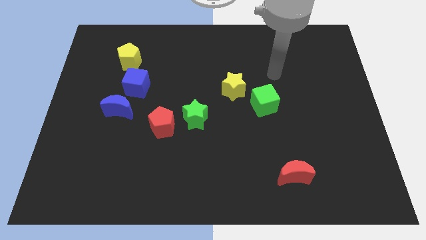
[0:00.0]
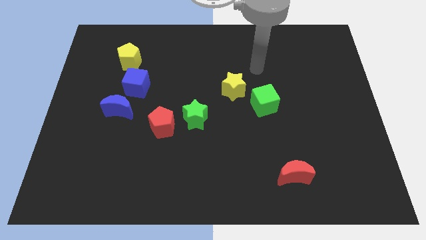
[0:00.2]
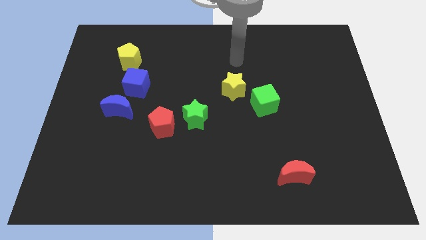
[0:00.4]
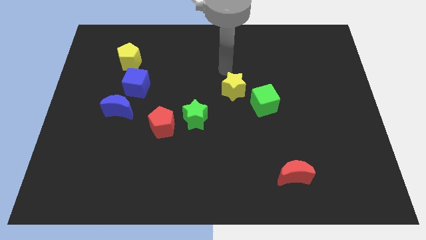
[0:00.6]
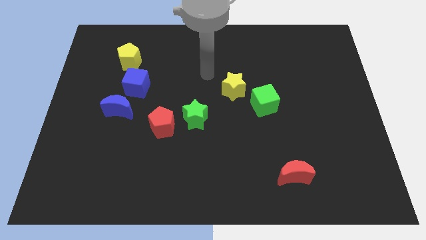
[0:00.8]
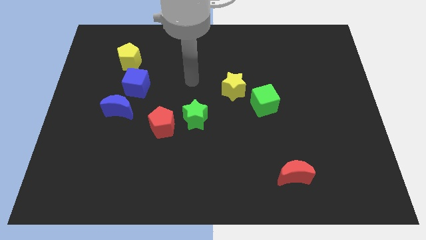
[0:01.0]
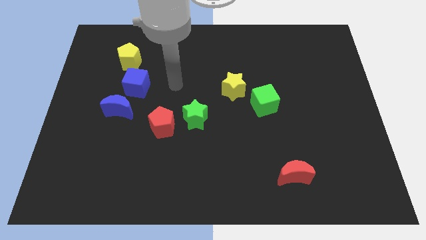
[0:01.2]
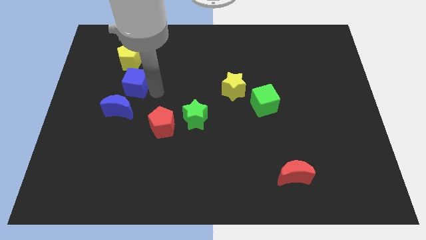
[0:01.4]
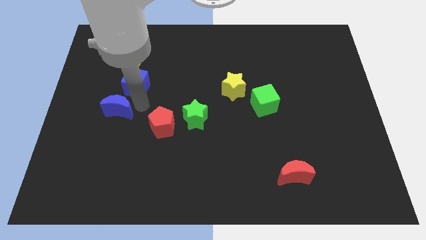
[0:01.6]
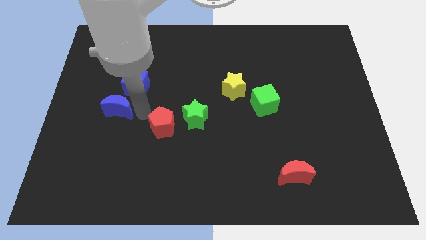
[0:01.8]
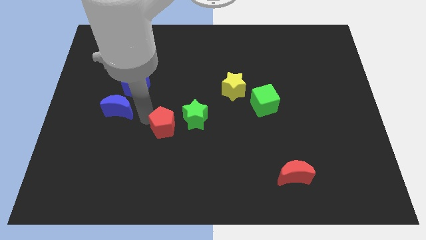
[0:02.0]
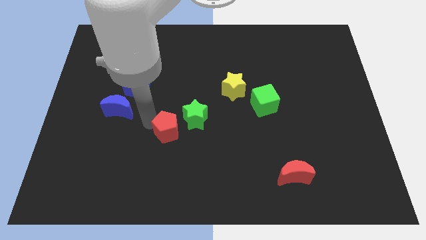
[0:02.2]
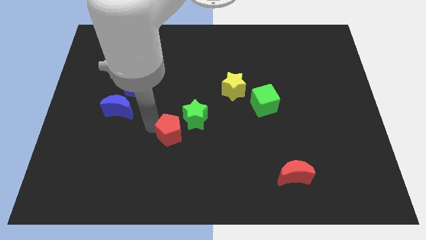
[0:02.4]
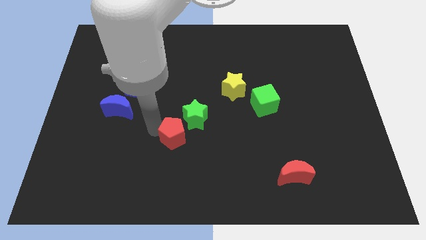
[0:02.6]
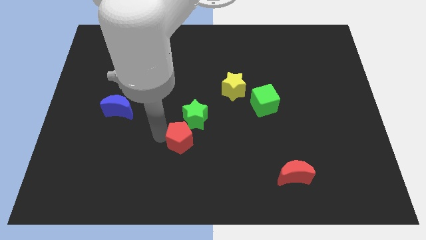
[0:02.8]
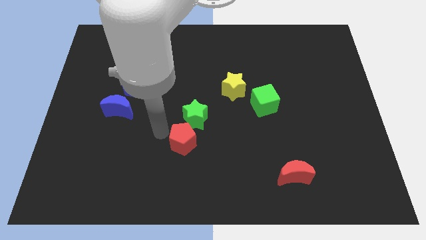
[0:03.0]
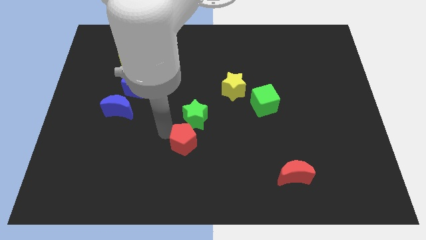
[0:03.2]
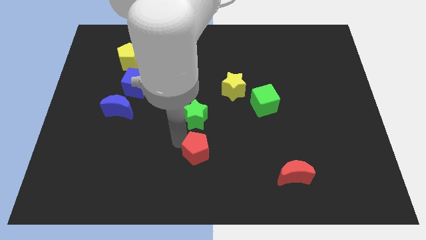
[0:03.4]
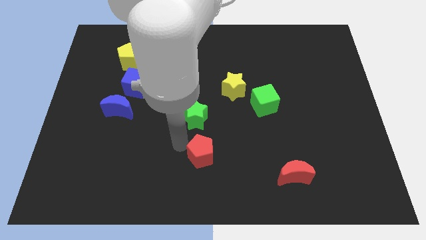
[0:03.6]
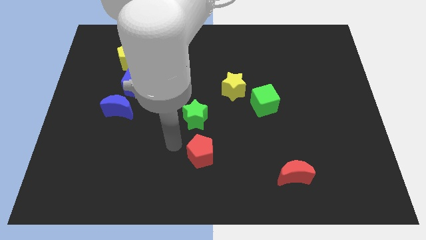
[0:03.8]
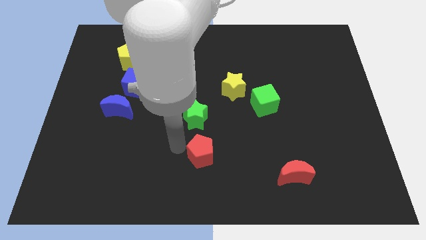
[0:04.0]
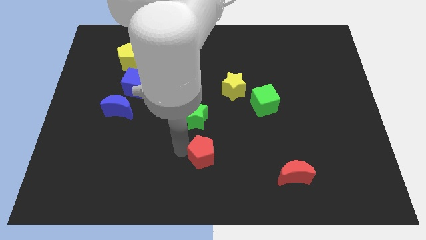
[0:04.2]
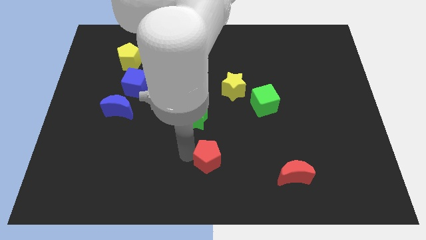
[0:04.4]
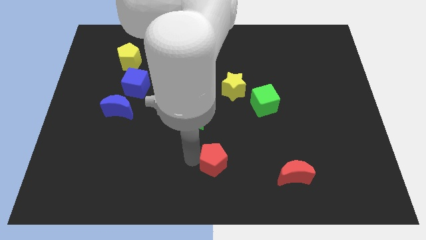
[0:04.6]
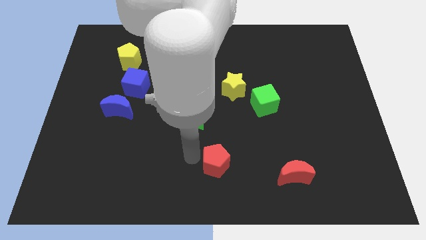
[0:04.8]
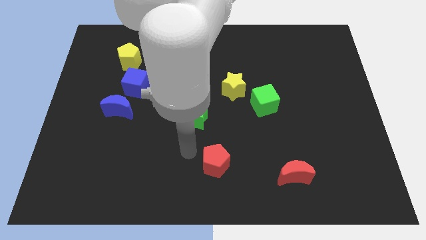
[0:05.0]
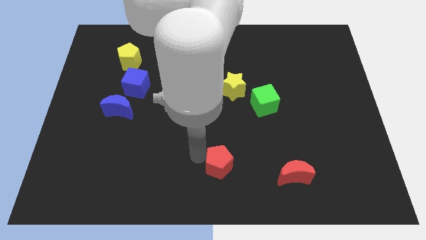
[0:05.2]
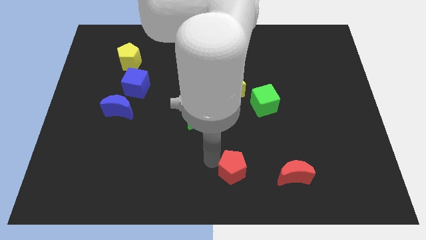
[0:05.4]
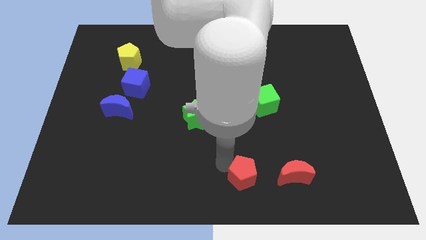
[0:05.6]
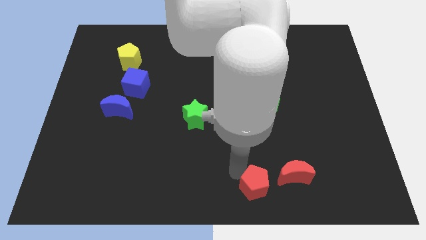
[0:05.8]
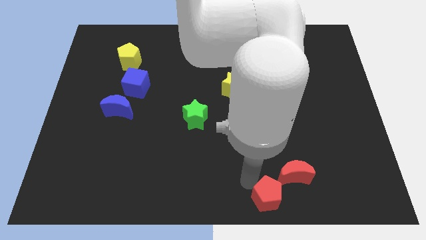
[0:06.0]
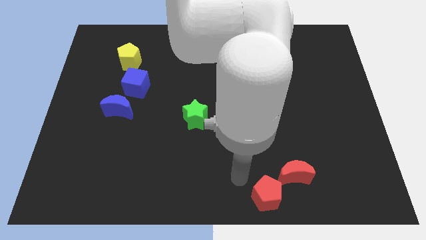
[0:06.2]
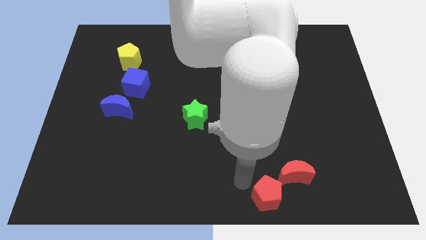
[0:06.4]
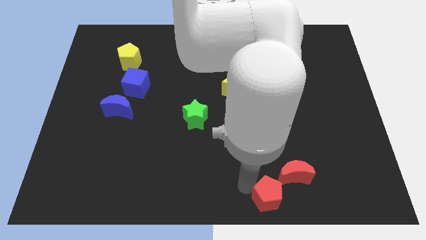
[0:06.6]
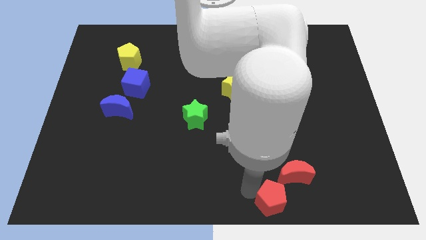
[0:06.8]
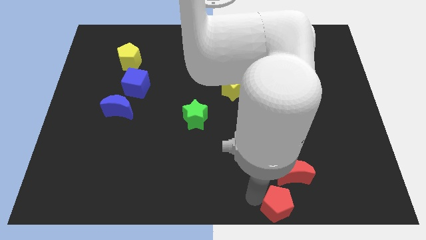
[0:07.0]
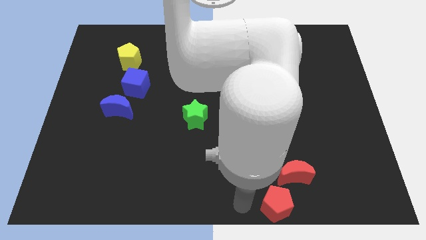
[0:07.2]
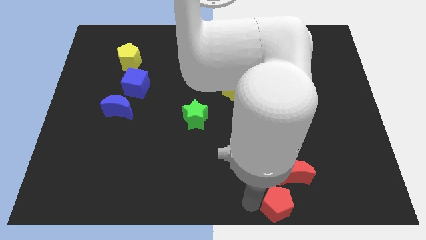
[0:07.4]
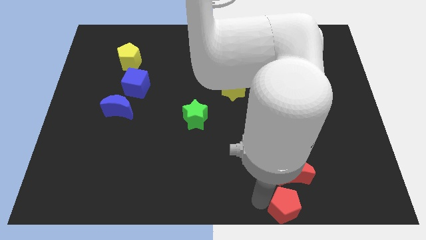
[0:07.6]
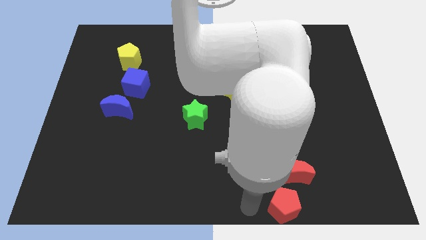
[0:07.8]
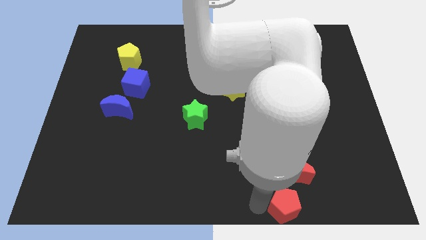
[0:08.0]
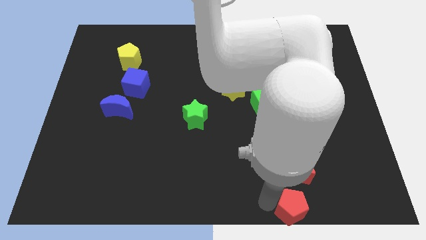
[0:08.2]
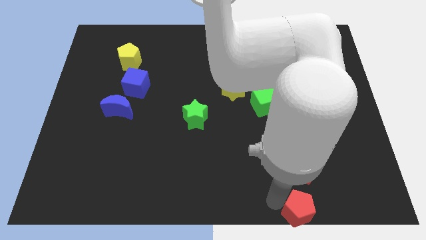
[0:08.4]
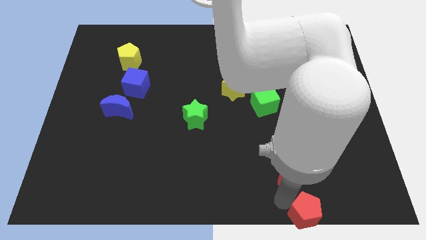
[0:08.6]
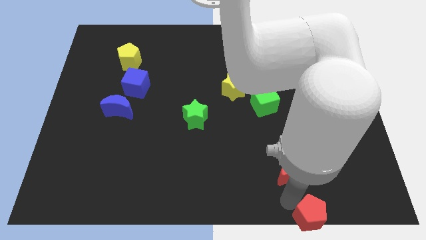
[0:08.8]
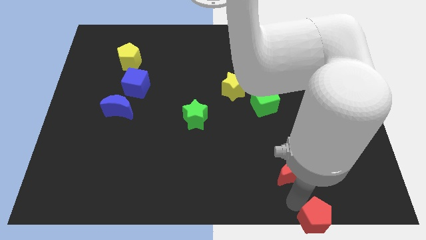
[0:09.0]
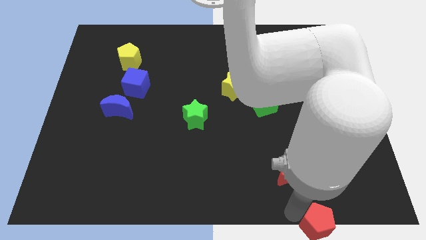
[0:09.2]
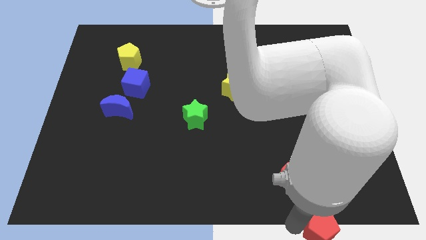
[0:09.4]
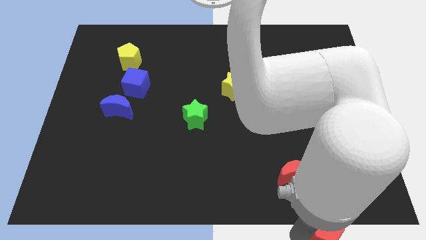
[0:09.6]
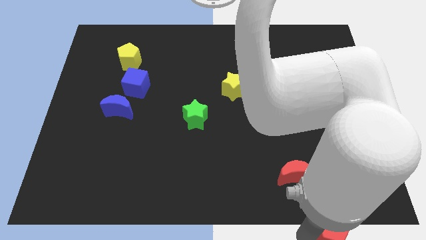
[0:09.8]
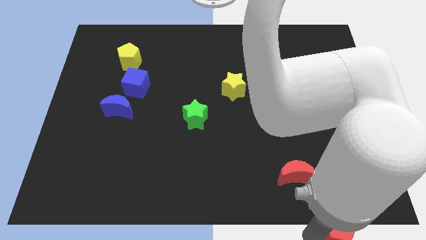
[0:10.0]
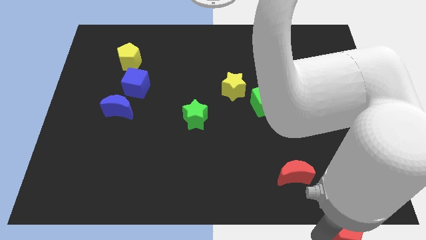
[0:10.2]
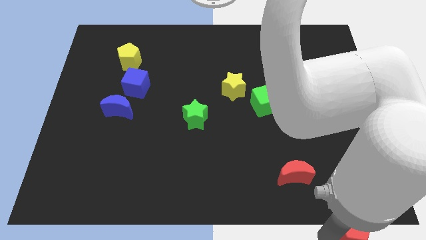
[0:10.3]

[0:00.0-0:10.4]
push the red pentagon to the bottom right of the board

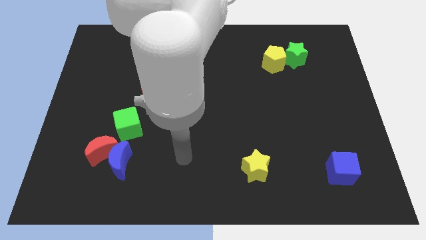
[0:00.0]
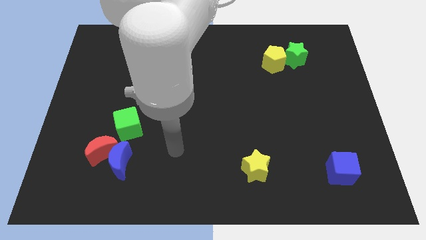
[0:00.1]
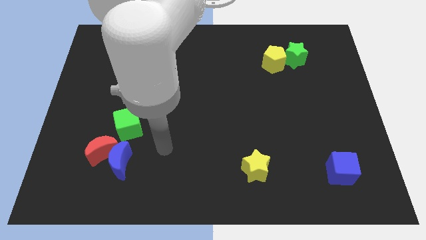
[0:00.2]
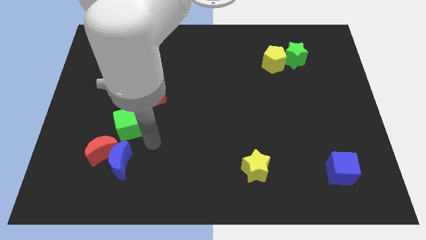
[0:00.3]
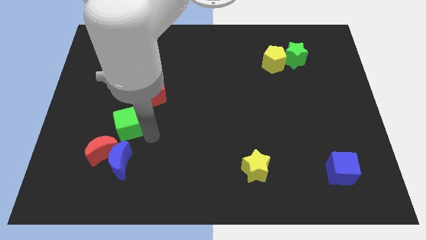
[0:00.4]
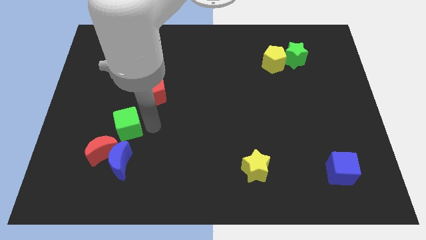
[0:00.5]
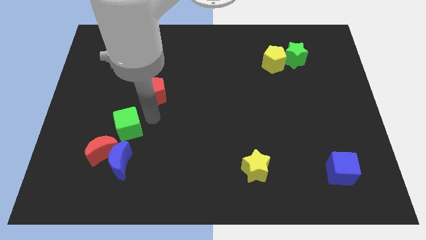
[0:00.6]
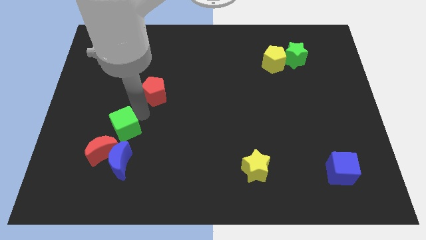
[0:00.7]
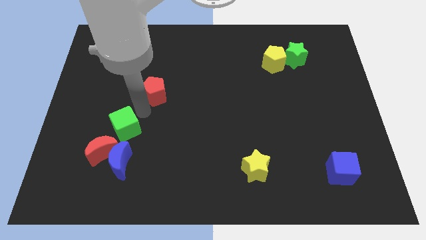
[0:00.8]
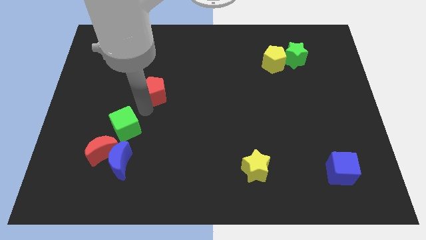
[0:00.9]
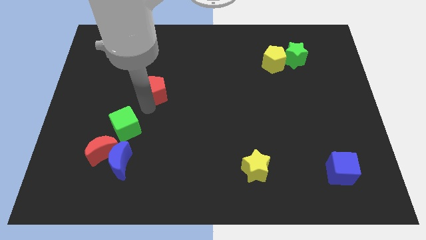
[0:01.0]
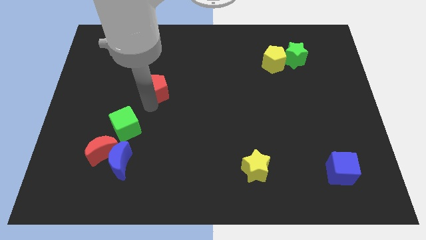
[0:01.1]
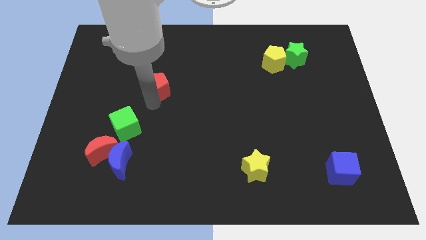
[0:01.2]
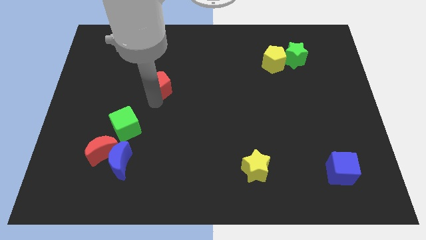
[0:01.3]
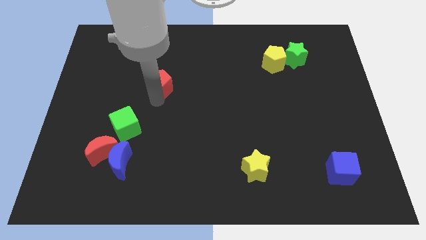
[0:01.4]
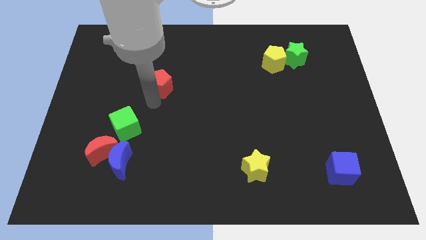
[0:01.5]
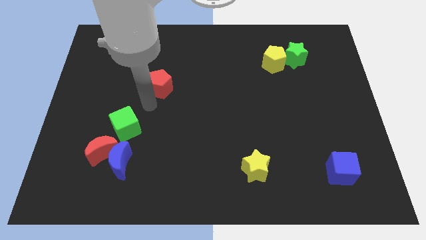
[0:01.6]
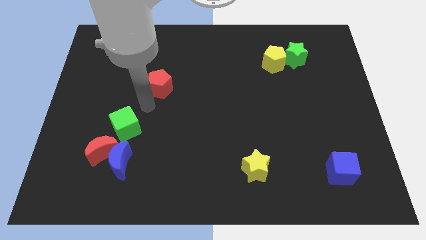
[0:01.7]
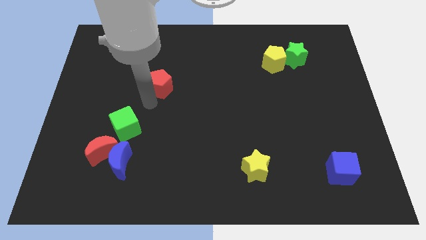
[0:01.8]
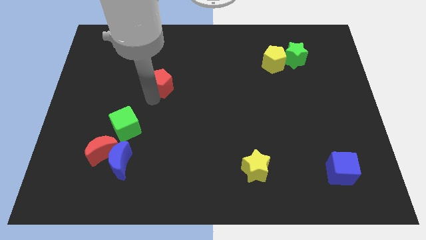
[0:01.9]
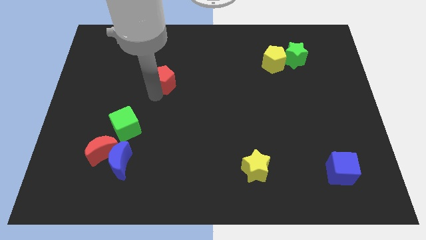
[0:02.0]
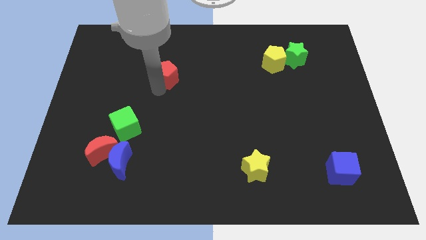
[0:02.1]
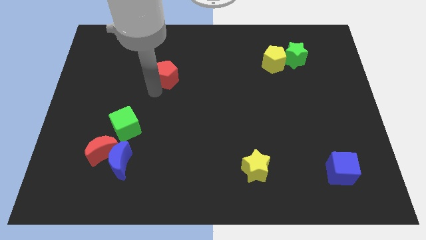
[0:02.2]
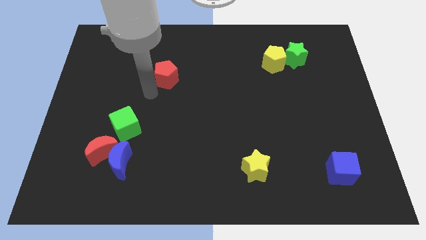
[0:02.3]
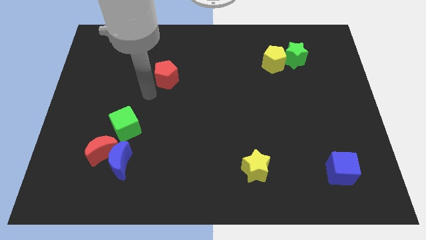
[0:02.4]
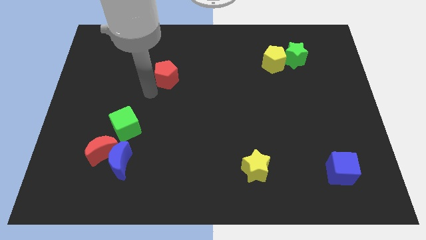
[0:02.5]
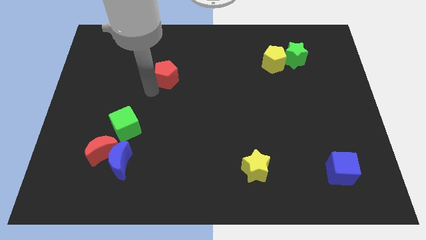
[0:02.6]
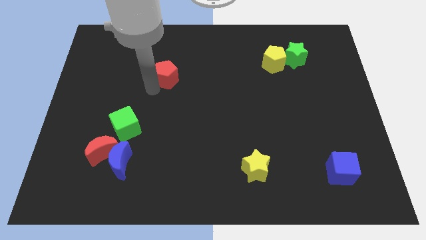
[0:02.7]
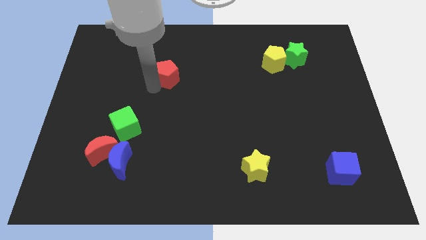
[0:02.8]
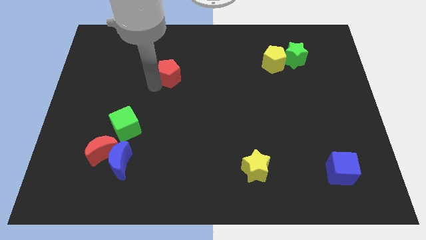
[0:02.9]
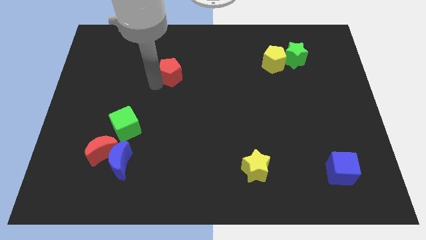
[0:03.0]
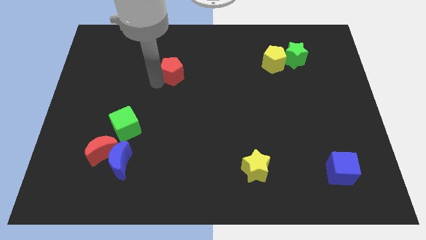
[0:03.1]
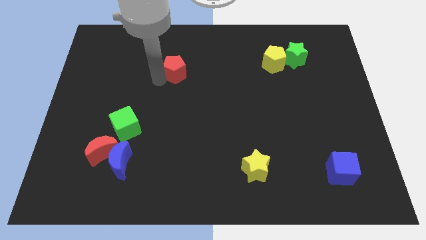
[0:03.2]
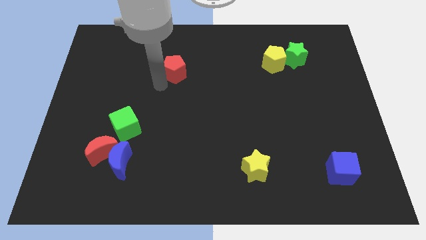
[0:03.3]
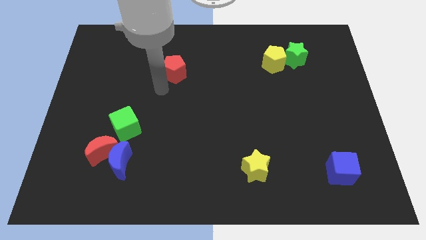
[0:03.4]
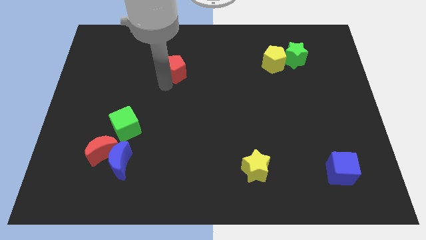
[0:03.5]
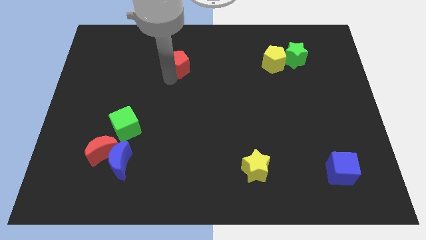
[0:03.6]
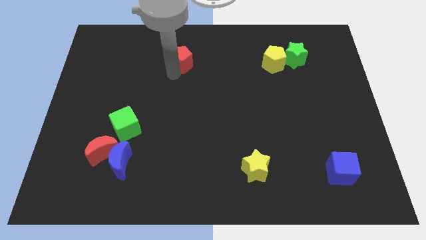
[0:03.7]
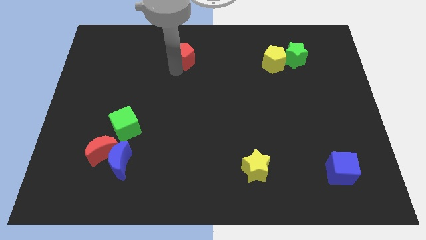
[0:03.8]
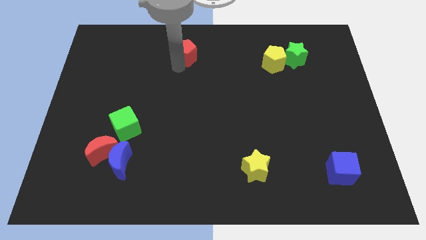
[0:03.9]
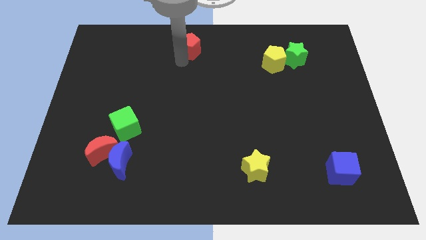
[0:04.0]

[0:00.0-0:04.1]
push the red pentagon to the top side
